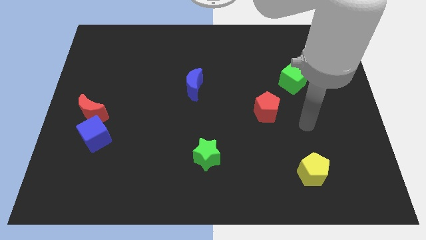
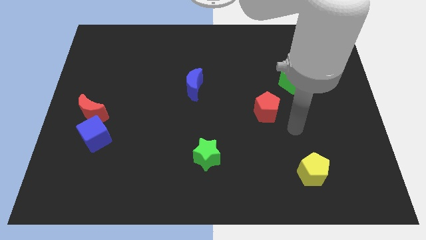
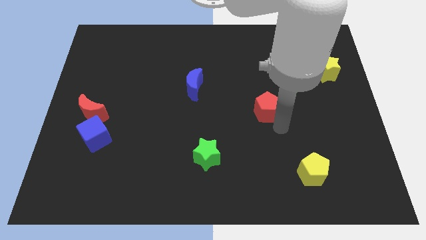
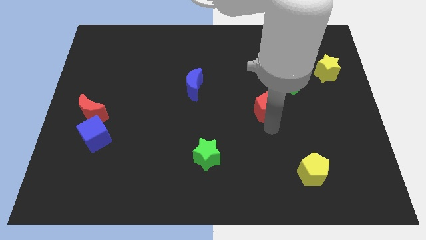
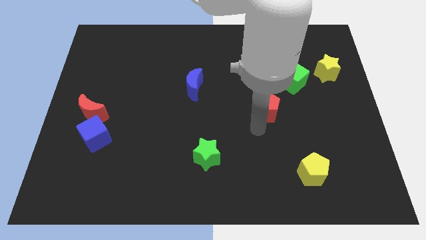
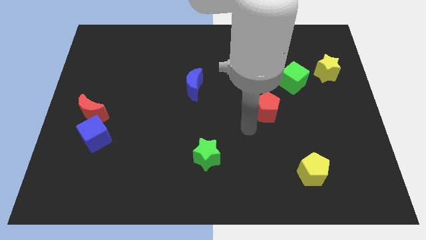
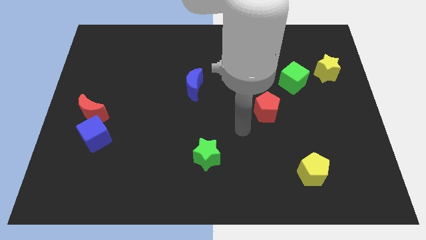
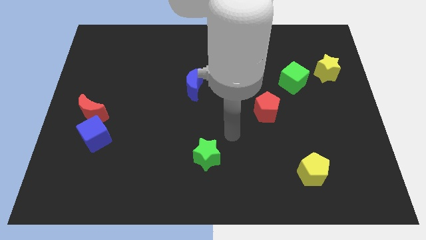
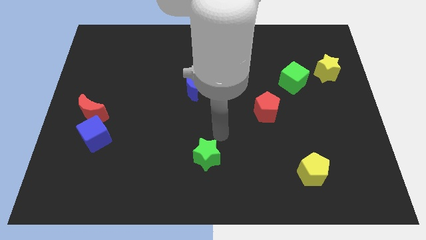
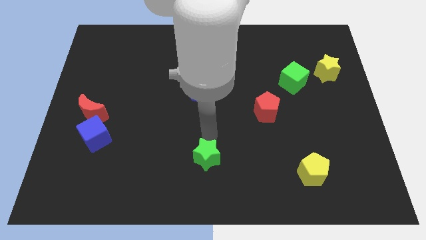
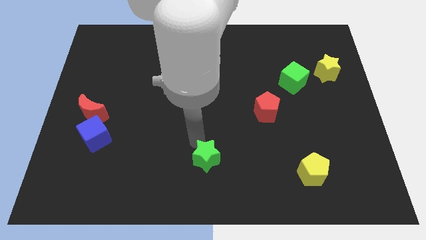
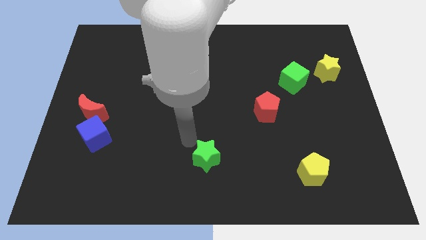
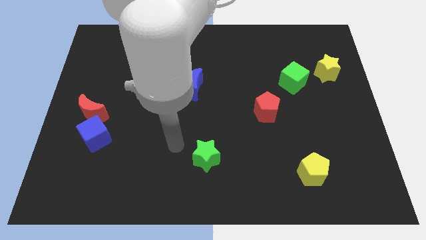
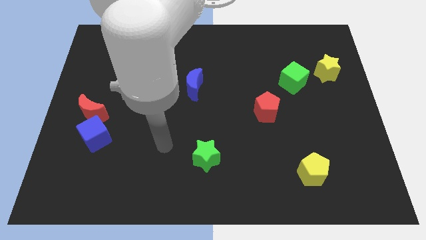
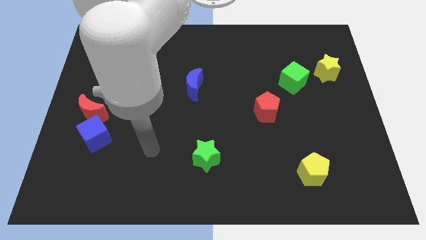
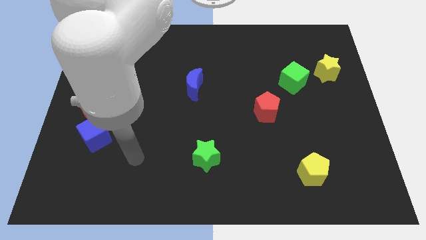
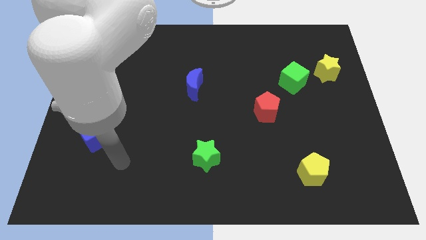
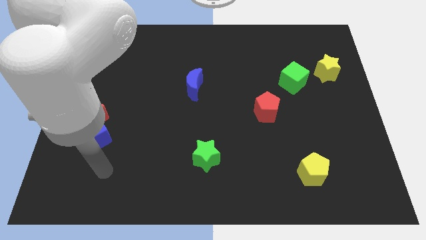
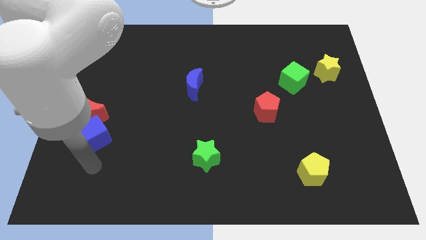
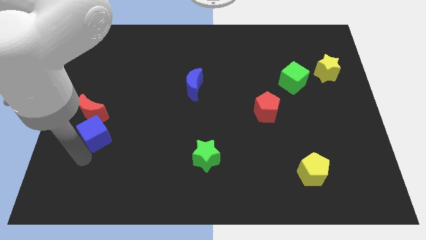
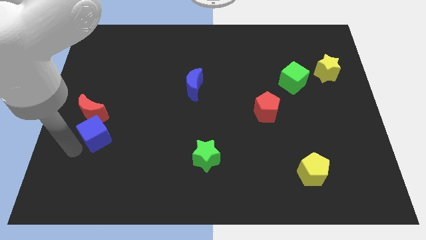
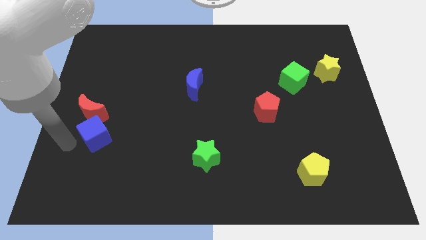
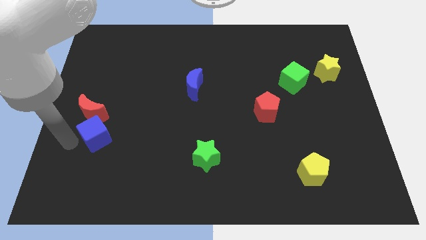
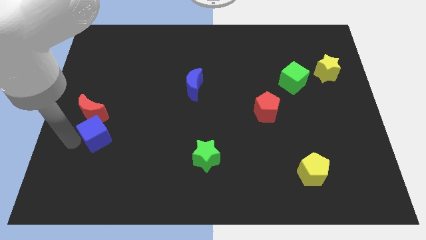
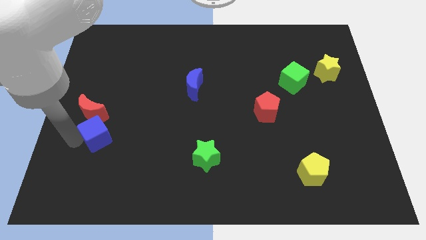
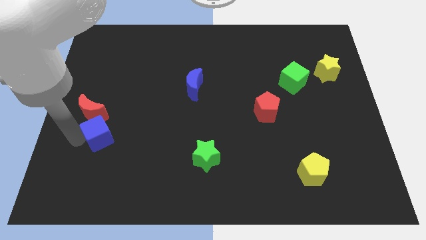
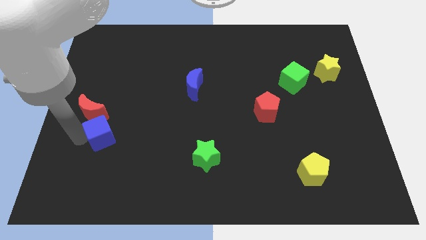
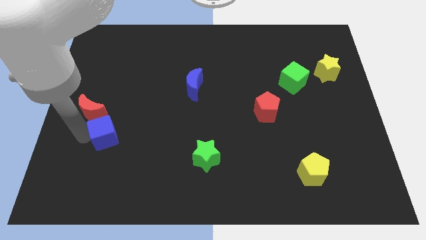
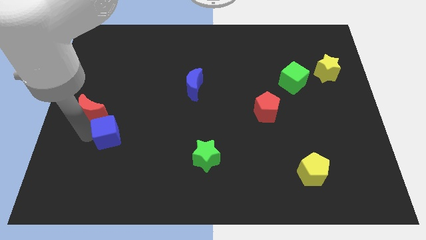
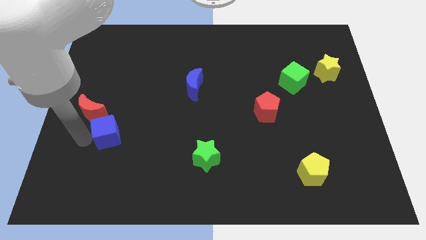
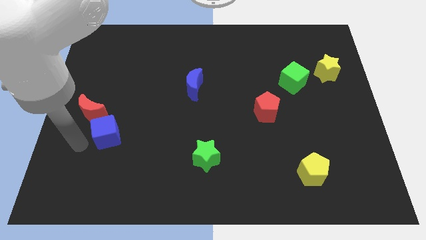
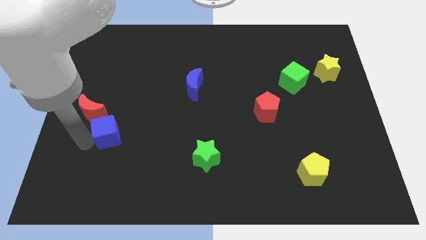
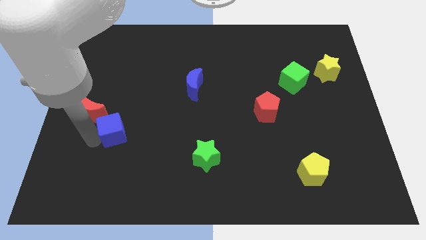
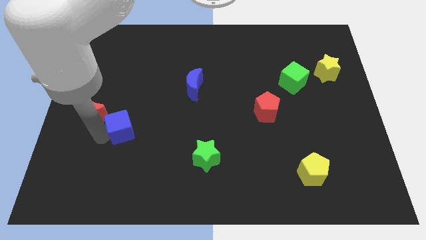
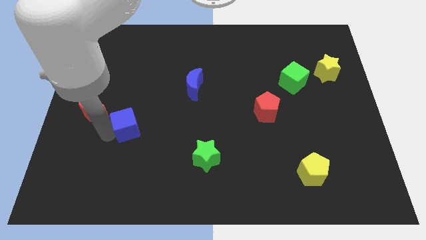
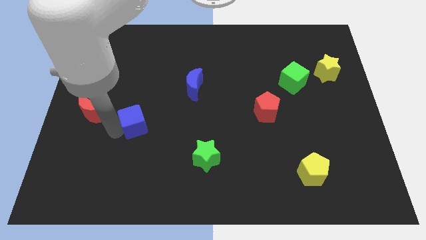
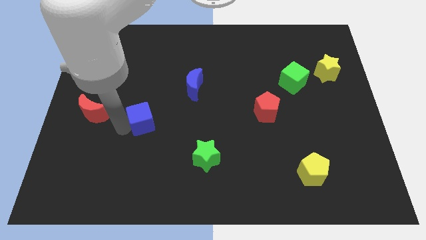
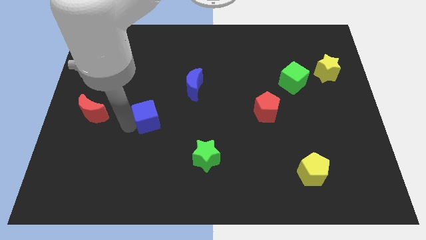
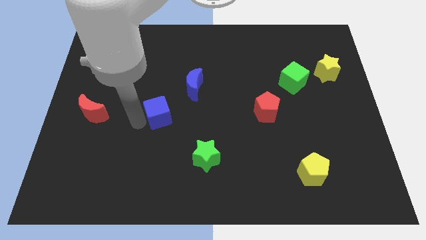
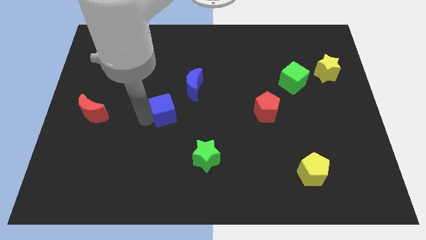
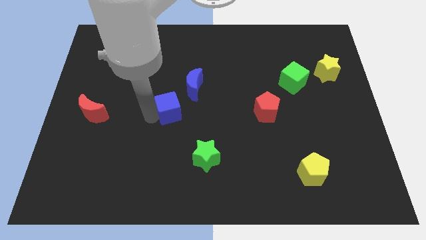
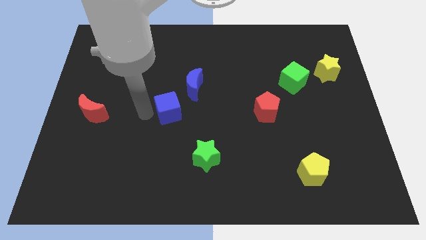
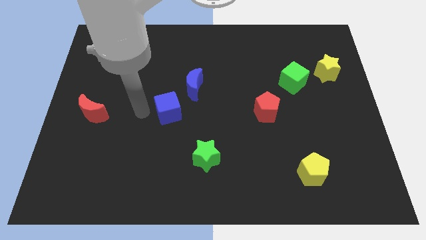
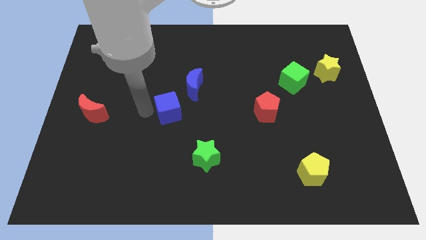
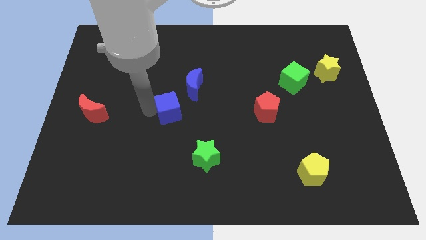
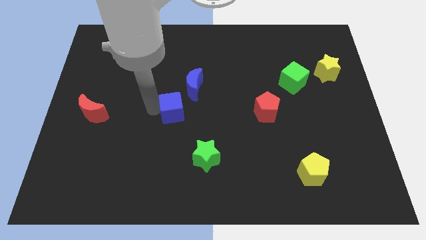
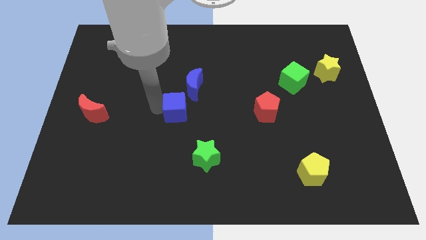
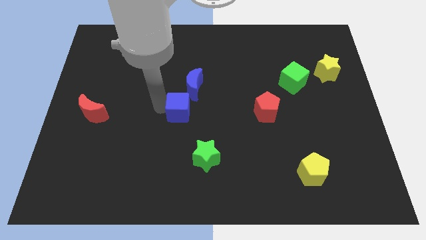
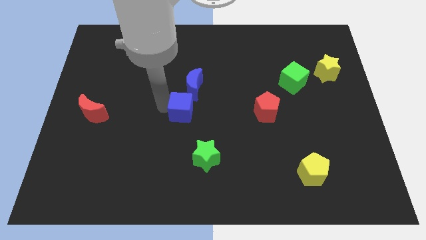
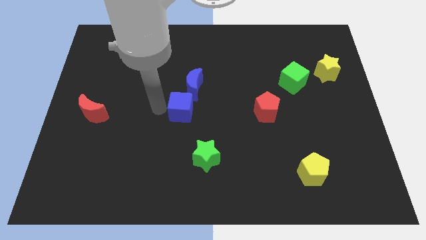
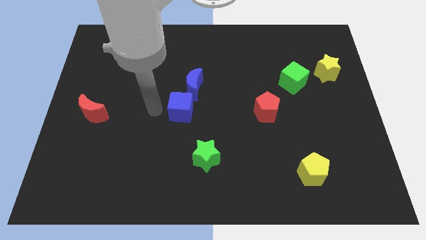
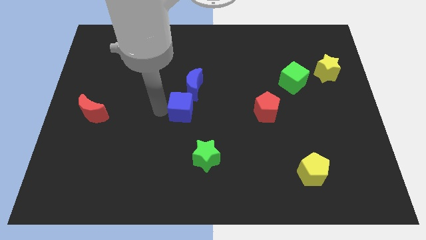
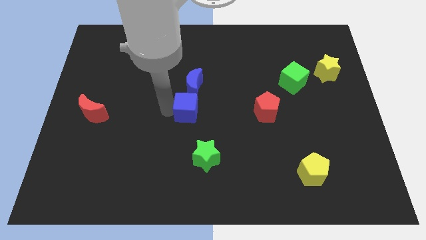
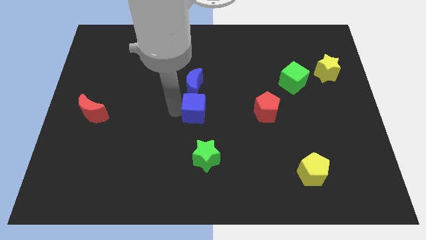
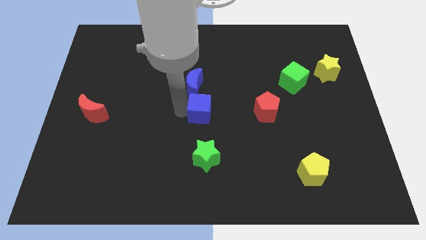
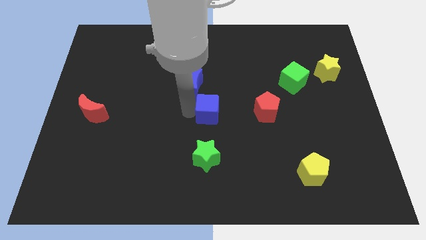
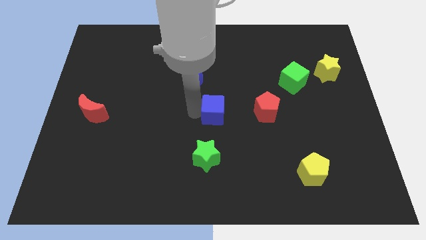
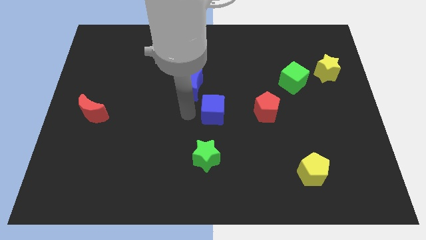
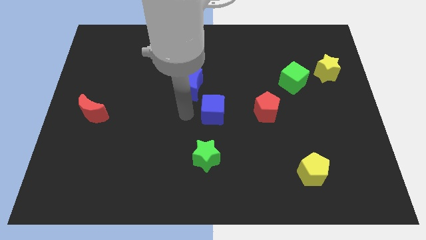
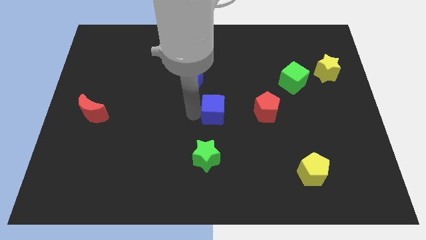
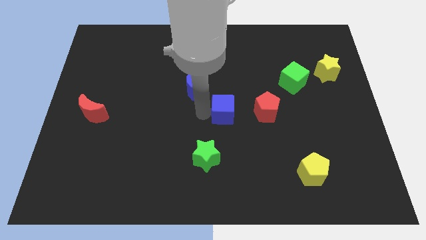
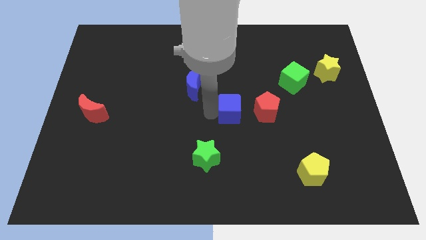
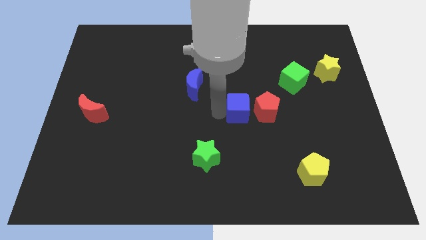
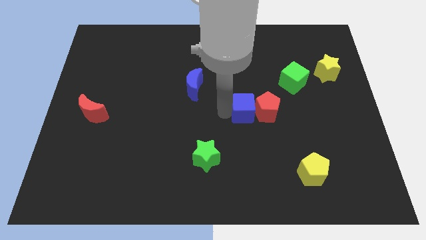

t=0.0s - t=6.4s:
push the blue cube towards the red pentagon

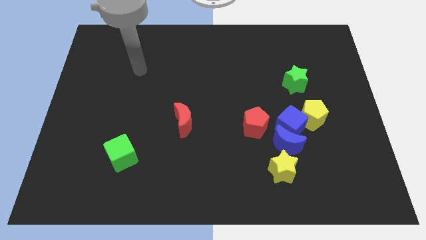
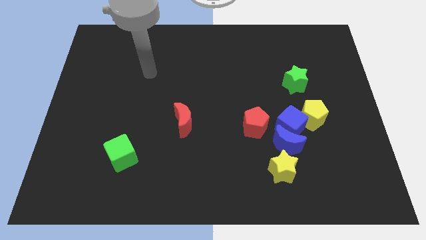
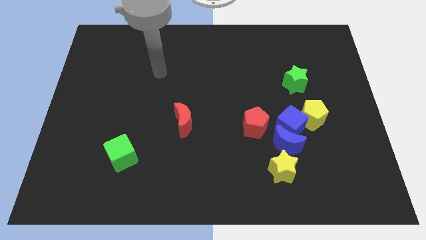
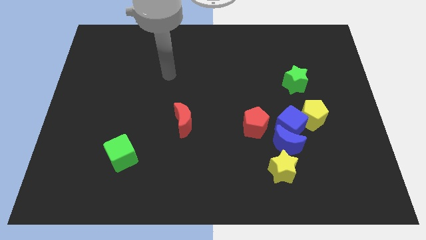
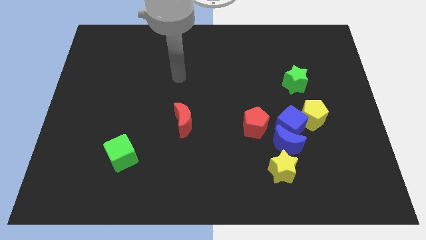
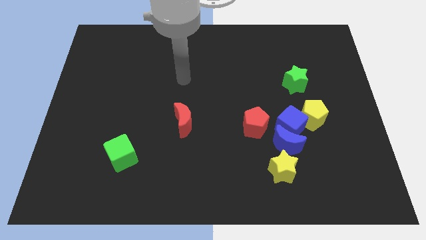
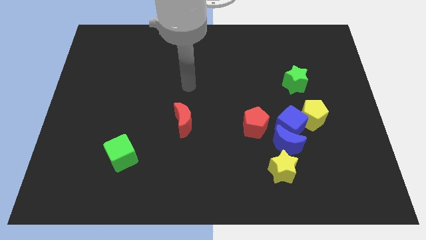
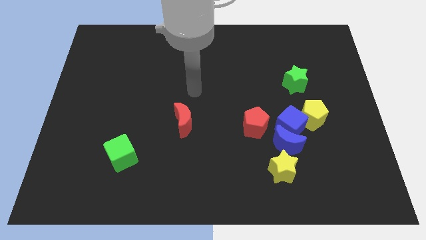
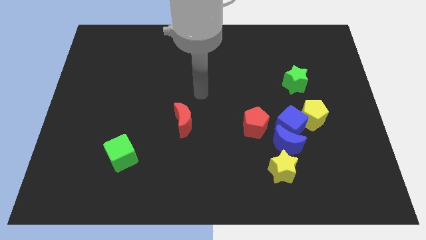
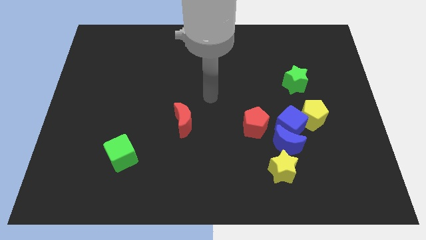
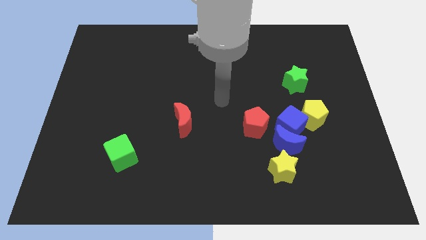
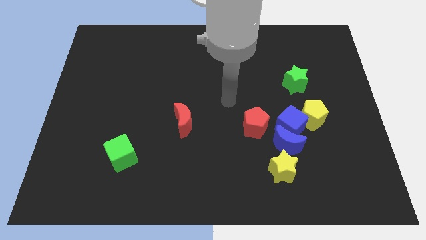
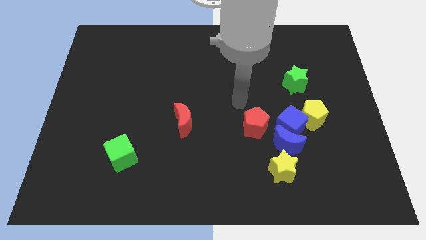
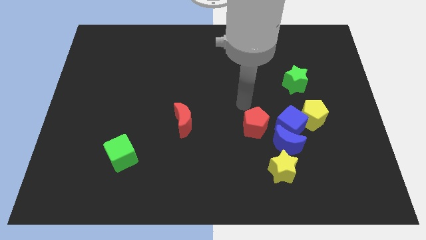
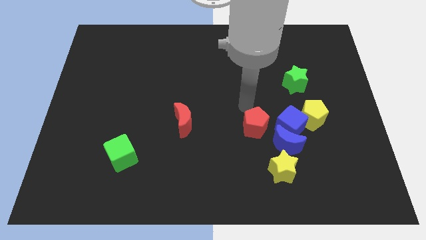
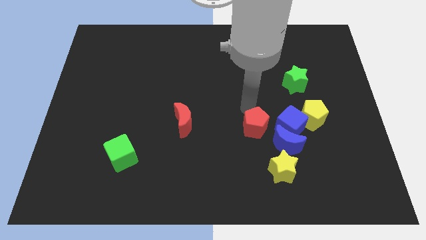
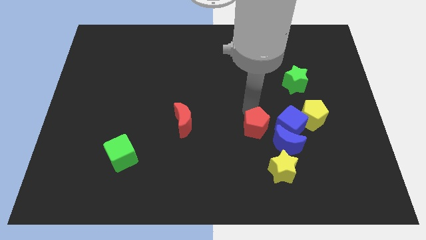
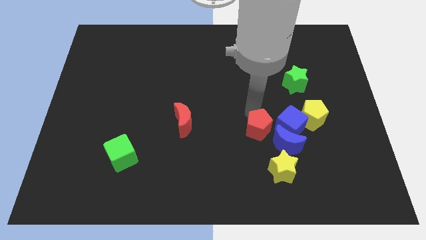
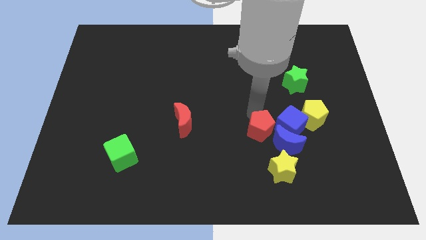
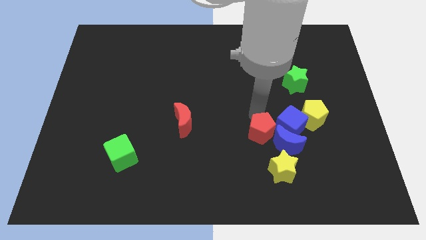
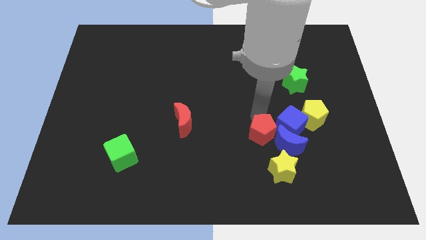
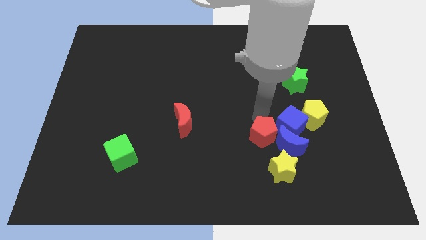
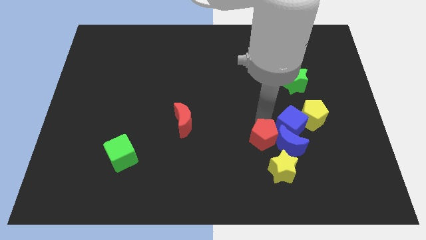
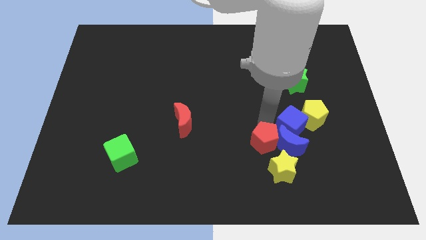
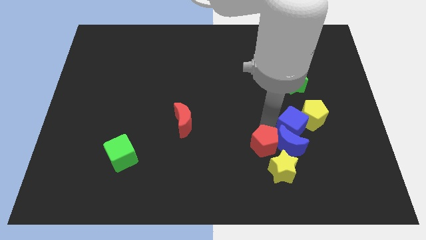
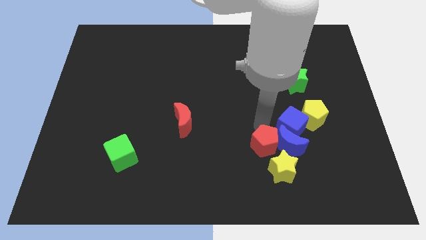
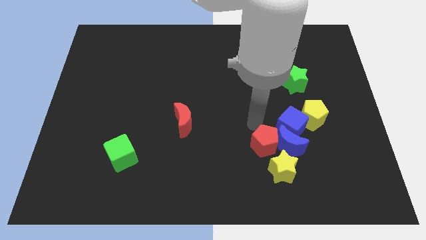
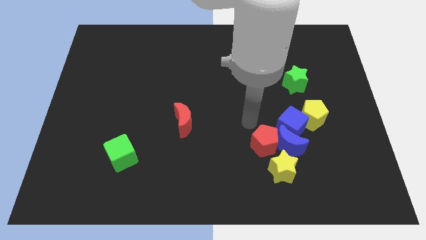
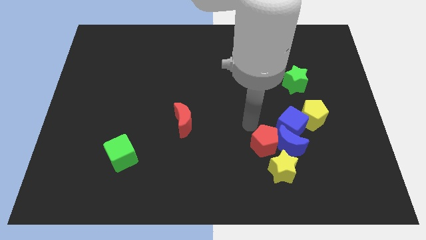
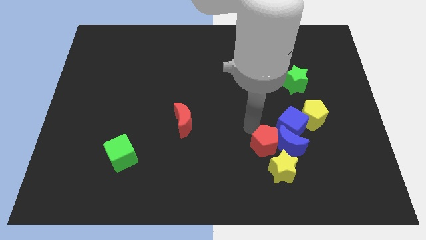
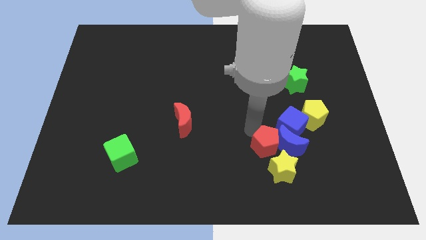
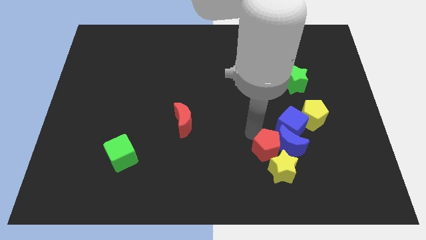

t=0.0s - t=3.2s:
push the red pentagon next to the yellow star
